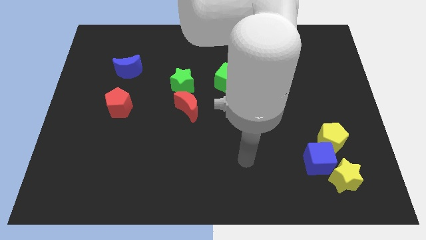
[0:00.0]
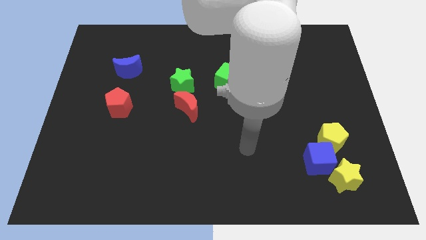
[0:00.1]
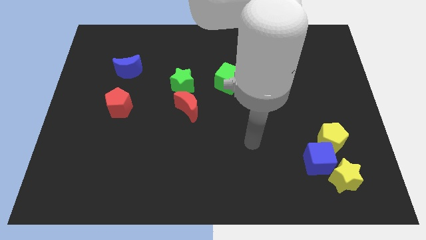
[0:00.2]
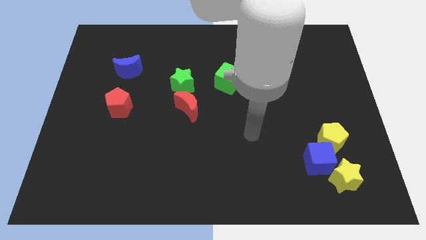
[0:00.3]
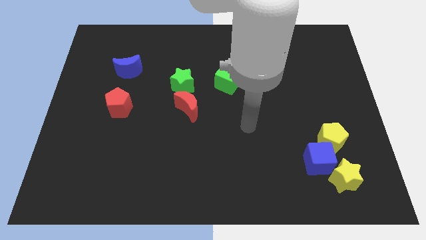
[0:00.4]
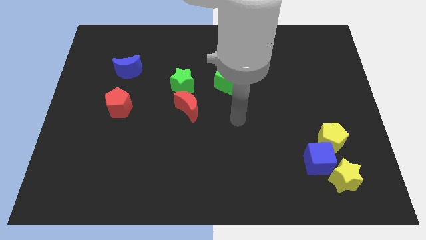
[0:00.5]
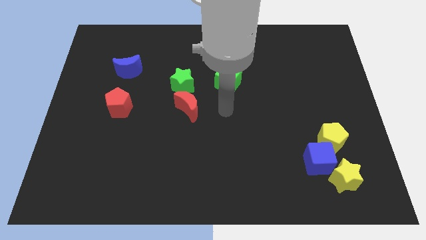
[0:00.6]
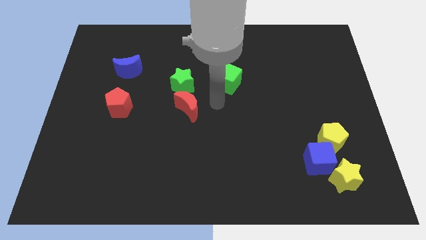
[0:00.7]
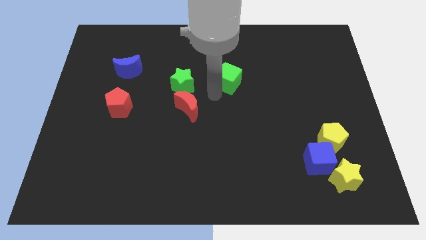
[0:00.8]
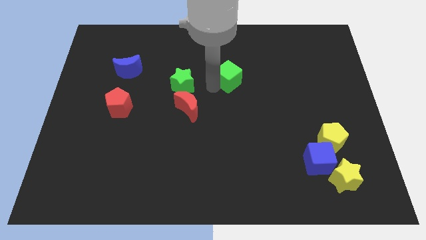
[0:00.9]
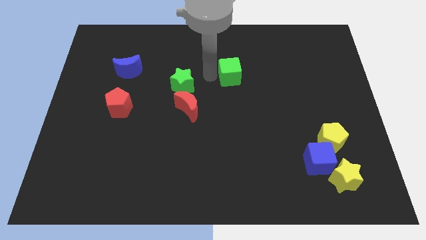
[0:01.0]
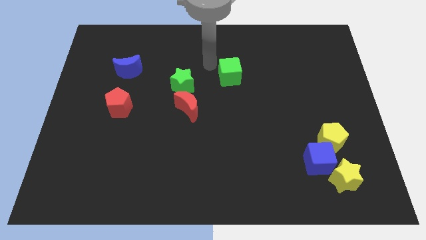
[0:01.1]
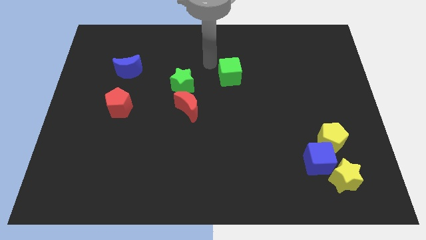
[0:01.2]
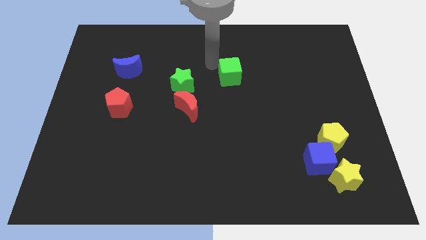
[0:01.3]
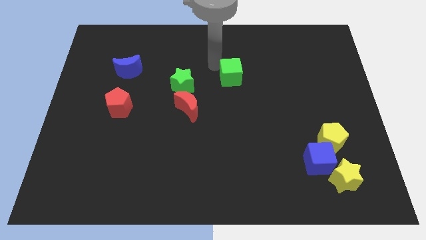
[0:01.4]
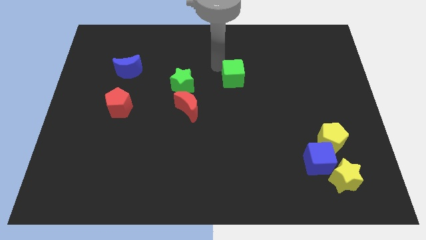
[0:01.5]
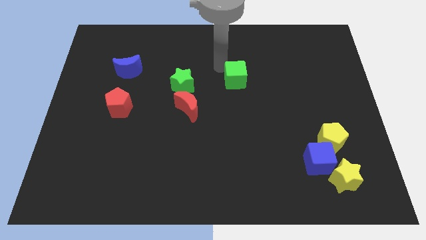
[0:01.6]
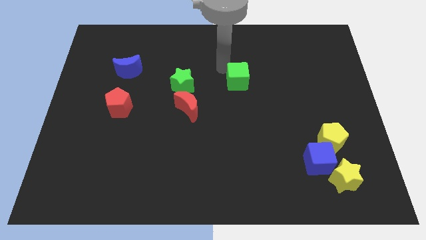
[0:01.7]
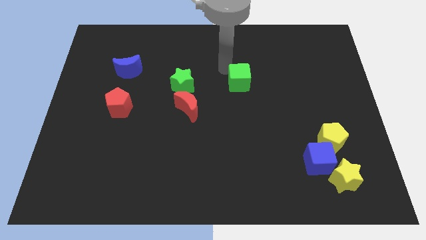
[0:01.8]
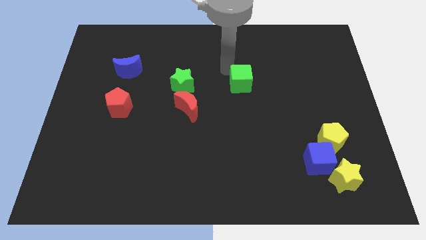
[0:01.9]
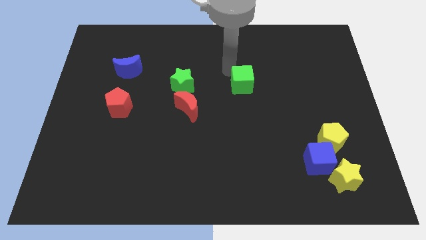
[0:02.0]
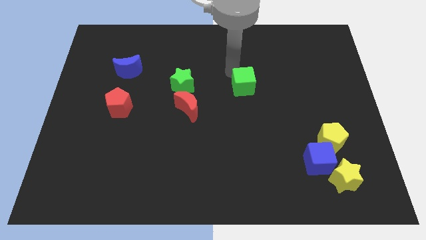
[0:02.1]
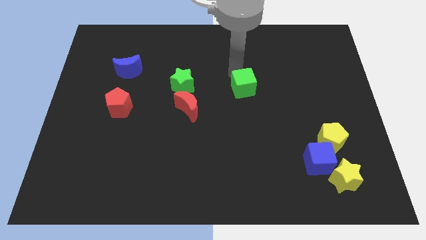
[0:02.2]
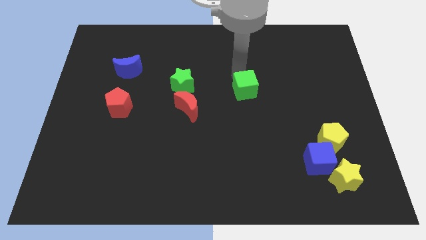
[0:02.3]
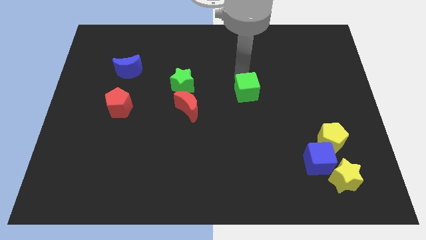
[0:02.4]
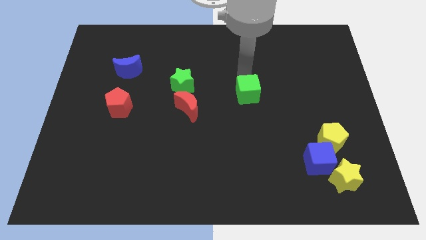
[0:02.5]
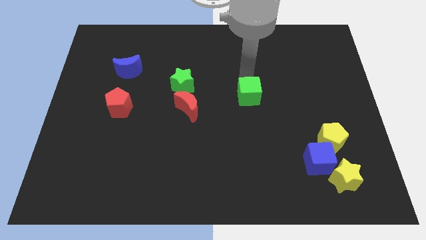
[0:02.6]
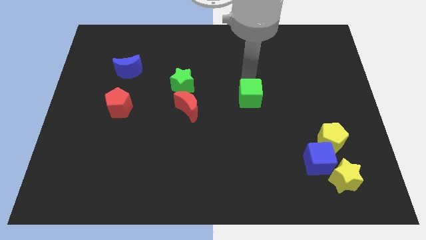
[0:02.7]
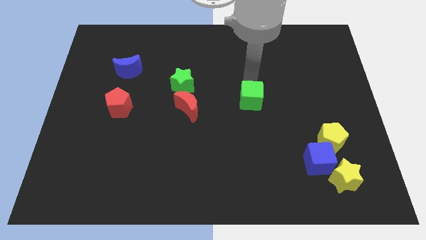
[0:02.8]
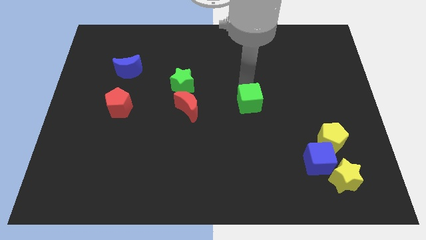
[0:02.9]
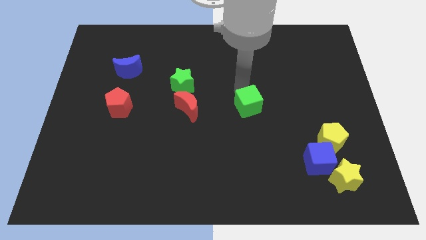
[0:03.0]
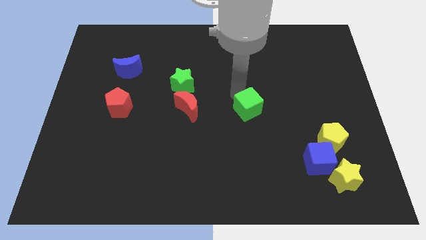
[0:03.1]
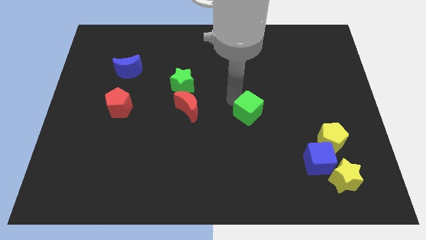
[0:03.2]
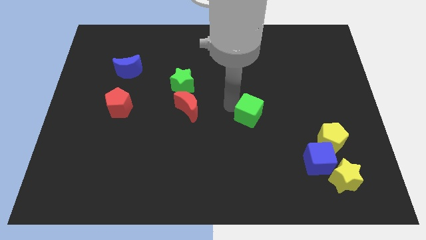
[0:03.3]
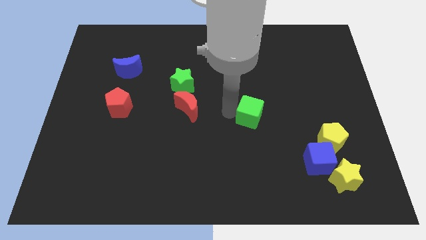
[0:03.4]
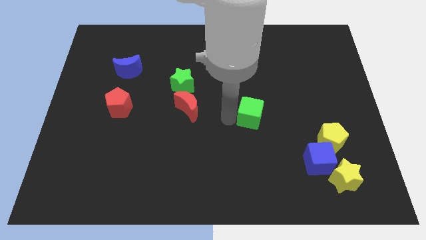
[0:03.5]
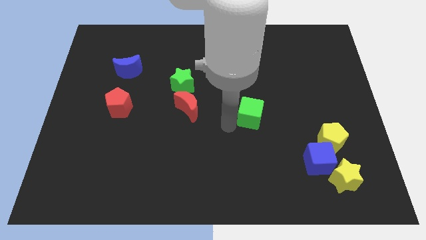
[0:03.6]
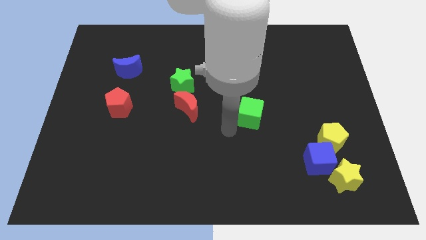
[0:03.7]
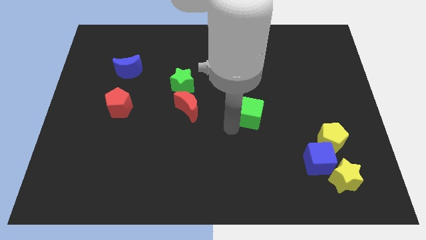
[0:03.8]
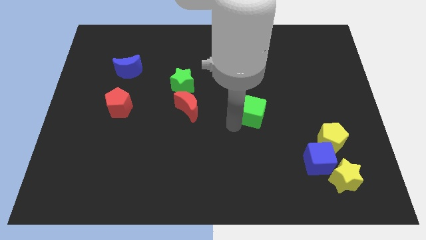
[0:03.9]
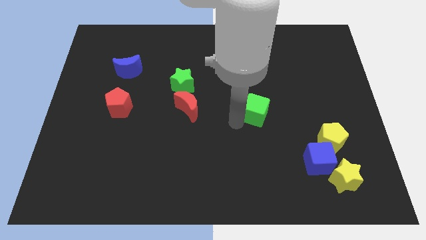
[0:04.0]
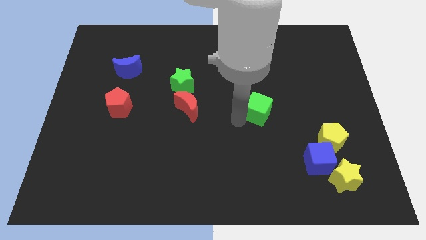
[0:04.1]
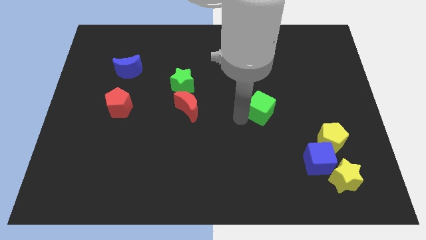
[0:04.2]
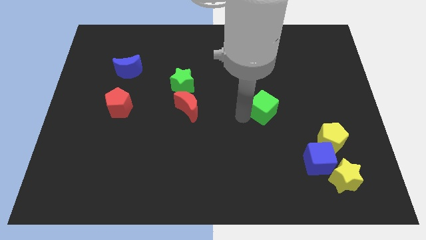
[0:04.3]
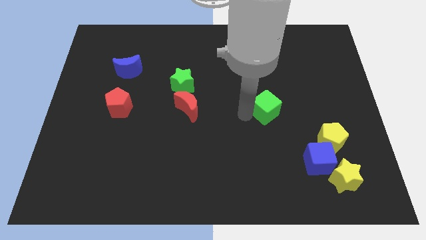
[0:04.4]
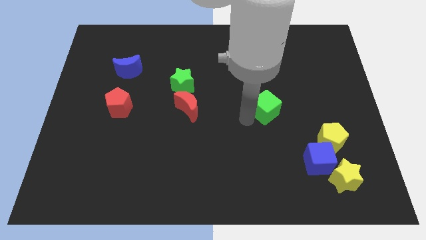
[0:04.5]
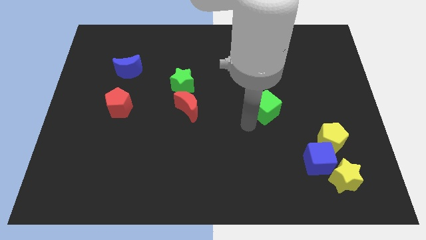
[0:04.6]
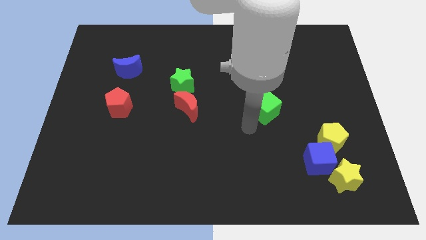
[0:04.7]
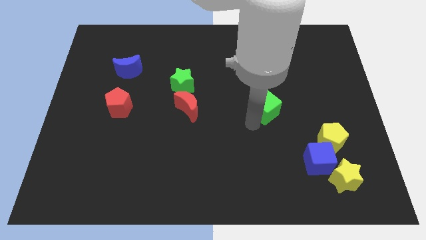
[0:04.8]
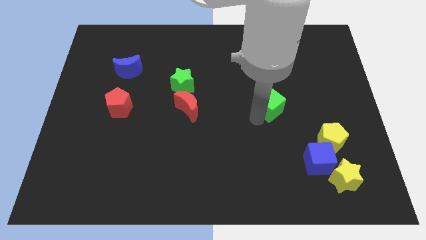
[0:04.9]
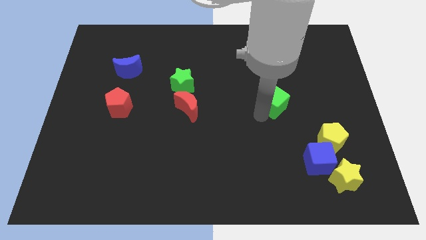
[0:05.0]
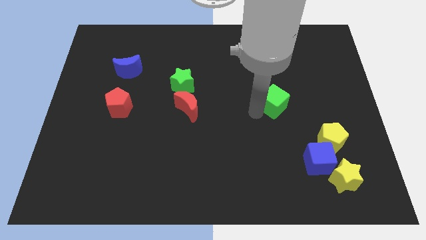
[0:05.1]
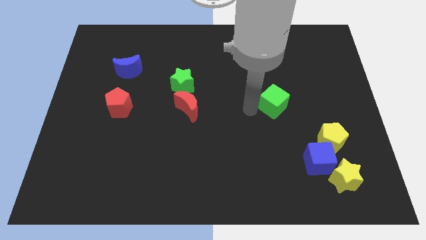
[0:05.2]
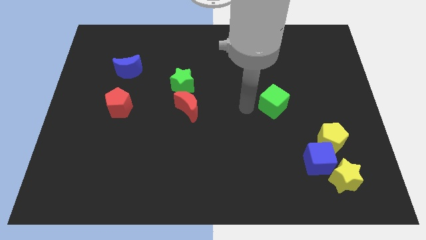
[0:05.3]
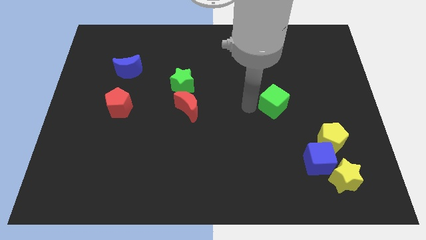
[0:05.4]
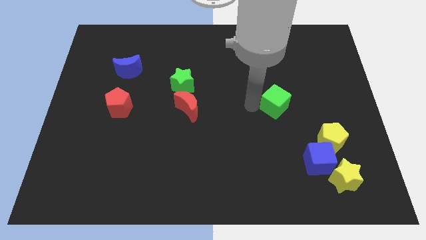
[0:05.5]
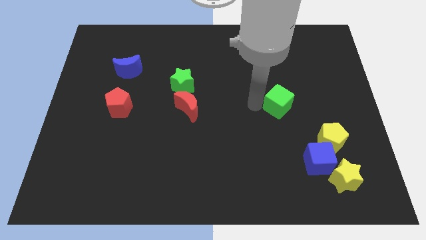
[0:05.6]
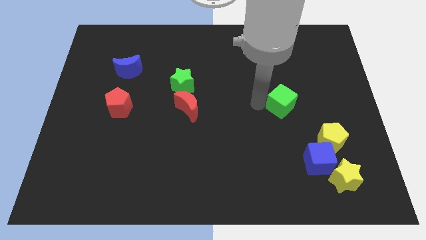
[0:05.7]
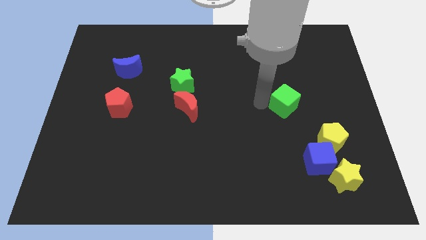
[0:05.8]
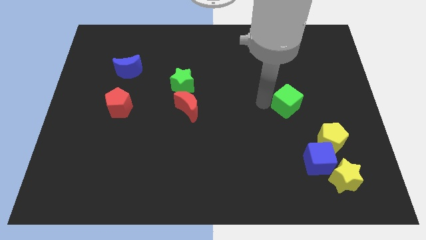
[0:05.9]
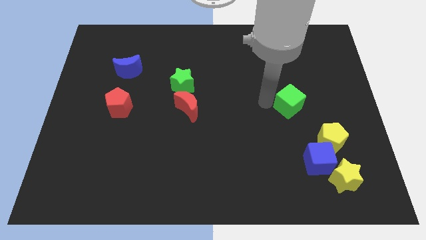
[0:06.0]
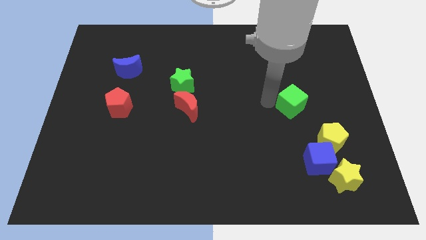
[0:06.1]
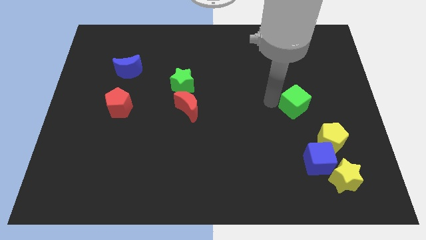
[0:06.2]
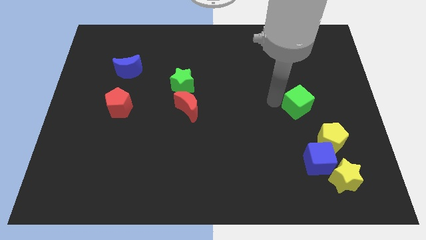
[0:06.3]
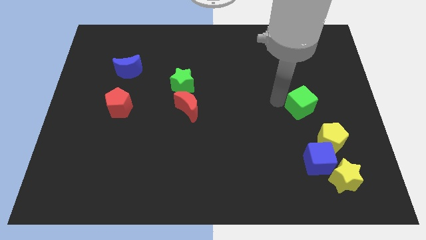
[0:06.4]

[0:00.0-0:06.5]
slide the green cube to the top of the yellow pentagon
